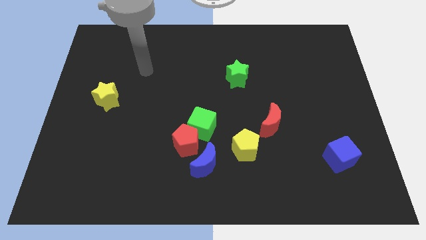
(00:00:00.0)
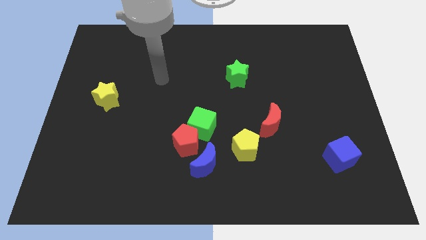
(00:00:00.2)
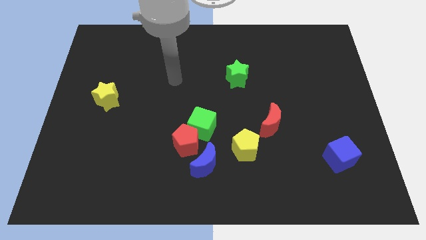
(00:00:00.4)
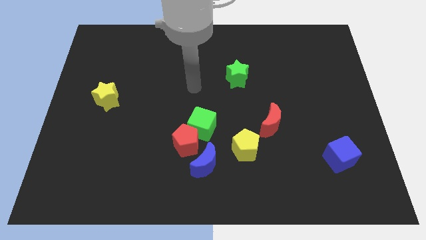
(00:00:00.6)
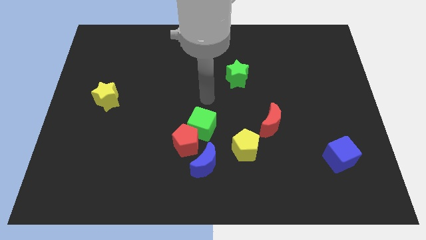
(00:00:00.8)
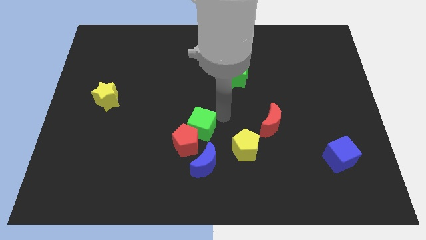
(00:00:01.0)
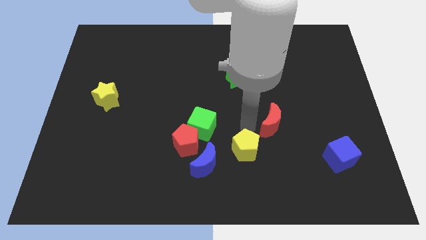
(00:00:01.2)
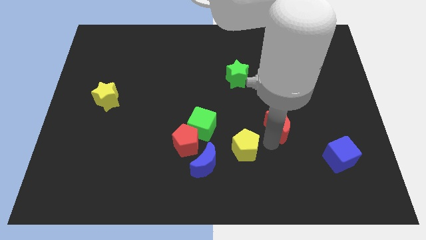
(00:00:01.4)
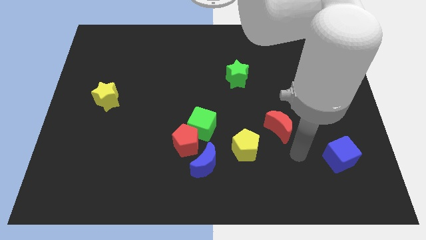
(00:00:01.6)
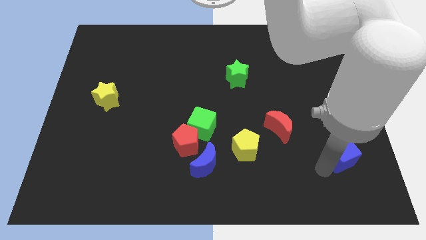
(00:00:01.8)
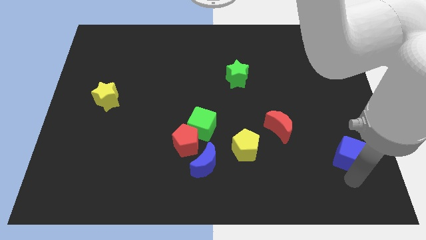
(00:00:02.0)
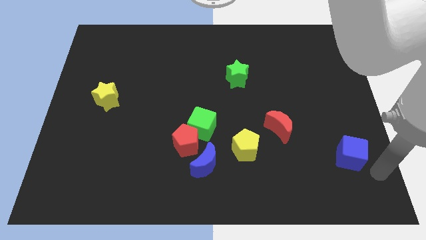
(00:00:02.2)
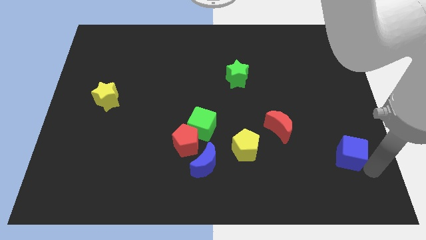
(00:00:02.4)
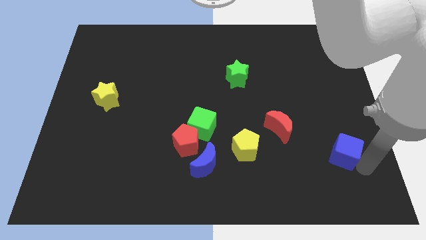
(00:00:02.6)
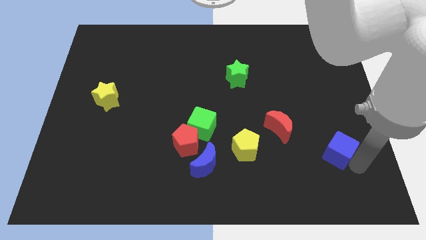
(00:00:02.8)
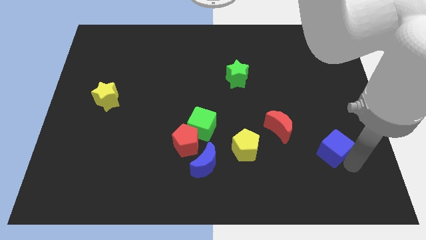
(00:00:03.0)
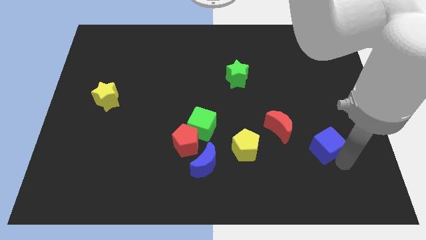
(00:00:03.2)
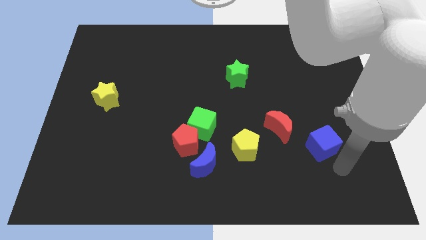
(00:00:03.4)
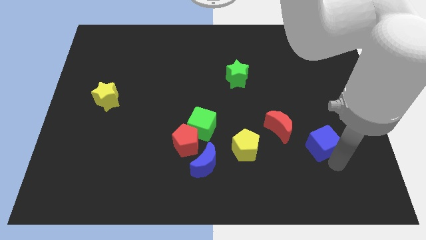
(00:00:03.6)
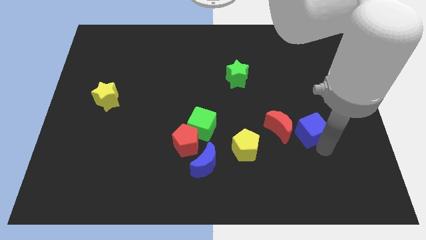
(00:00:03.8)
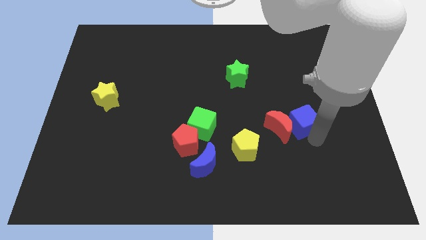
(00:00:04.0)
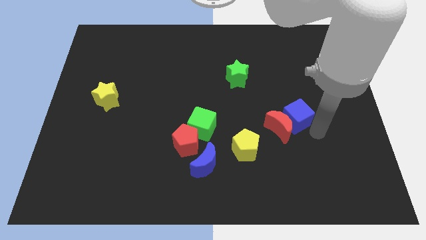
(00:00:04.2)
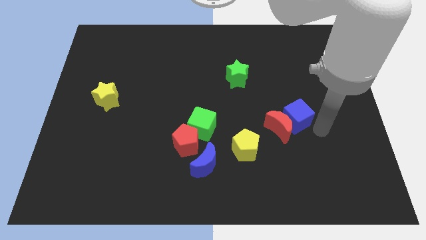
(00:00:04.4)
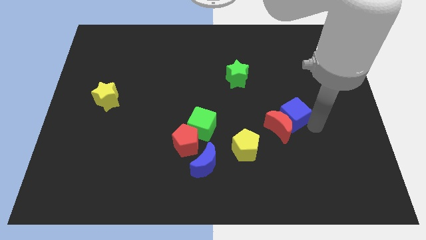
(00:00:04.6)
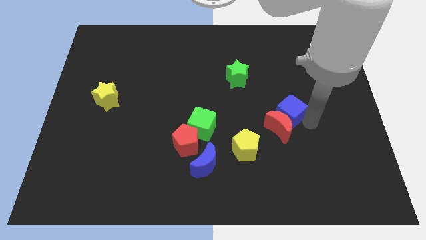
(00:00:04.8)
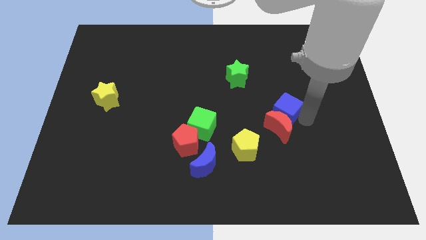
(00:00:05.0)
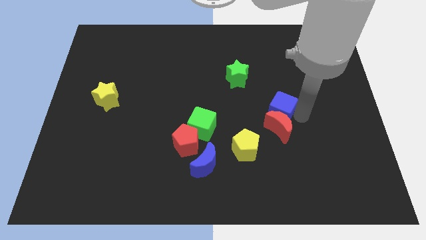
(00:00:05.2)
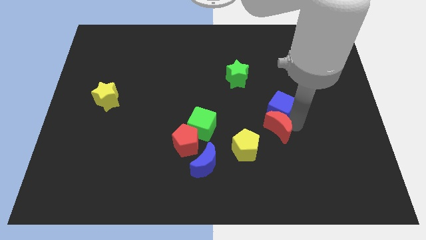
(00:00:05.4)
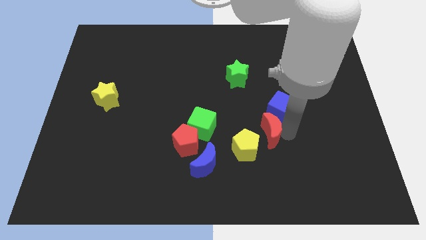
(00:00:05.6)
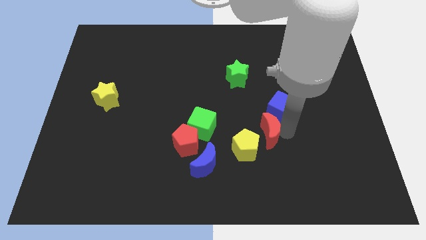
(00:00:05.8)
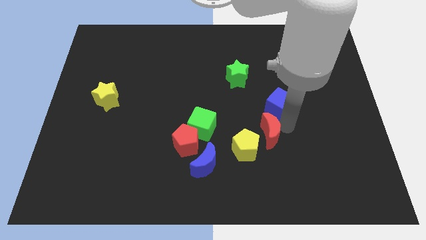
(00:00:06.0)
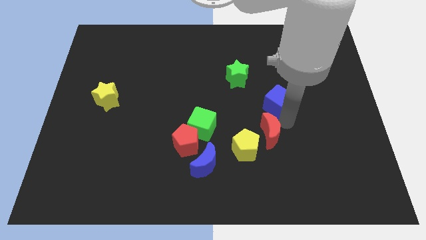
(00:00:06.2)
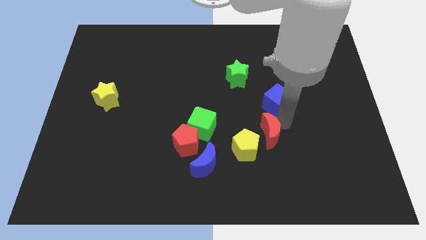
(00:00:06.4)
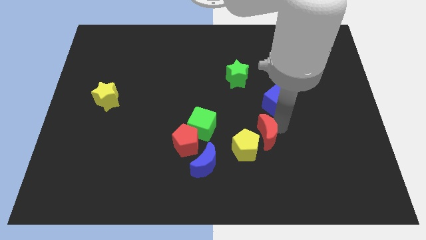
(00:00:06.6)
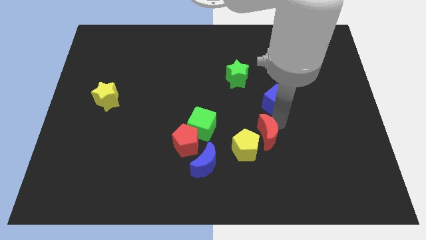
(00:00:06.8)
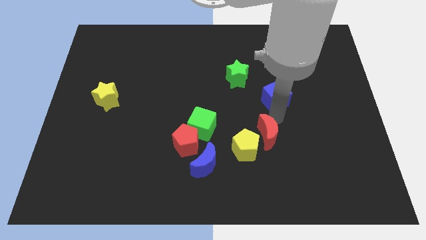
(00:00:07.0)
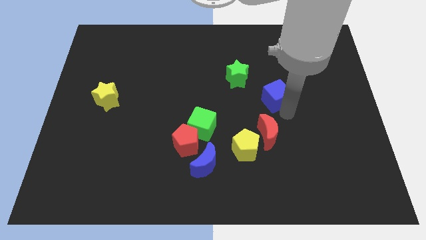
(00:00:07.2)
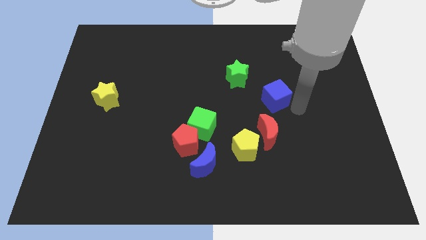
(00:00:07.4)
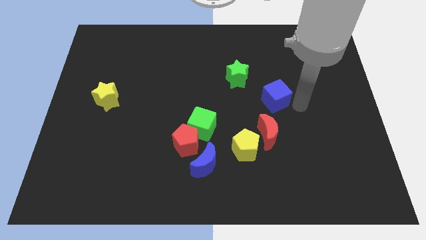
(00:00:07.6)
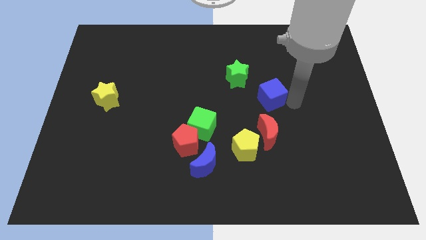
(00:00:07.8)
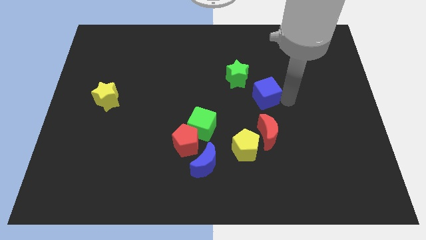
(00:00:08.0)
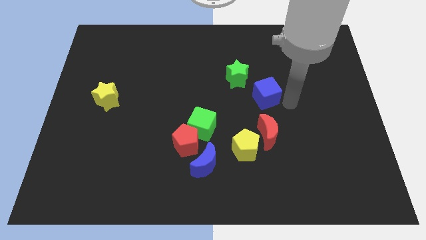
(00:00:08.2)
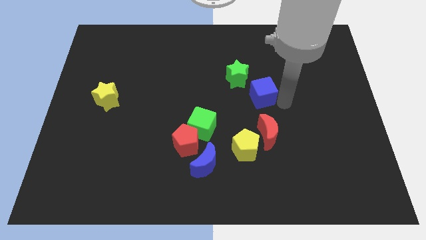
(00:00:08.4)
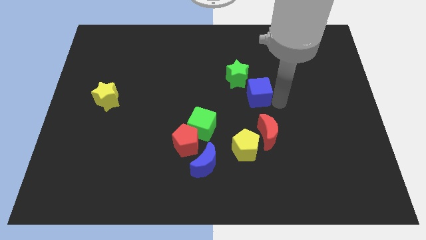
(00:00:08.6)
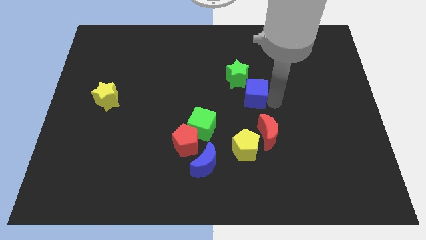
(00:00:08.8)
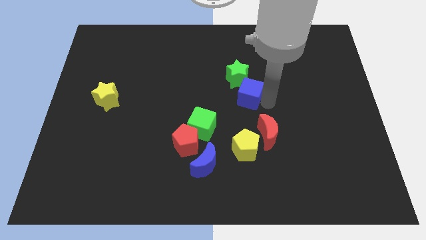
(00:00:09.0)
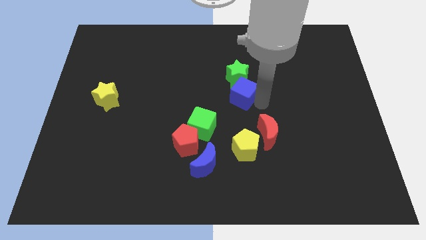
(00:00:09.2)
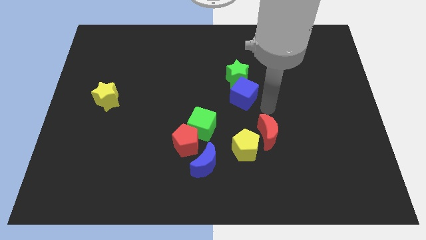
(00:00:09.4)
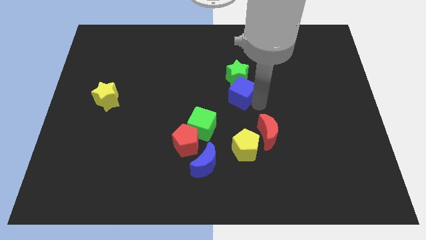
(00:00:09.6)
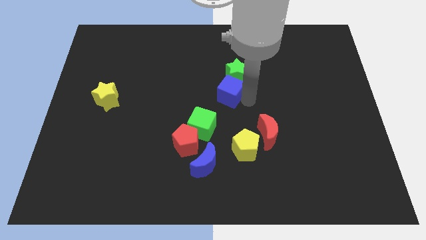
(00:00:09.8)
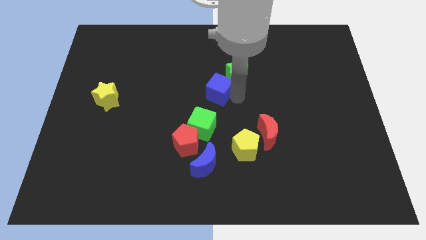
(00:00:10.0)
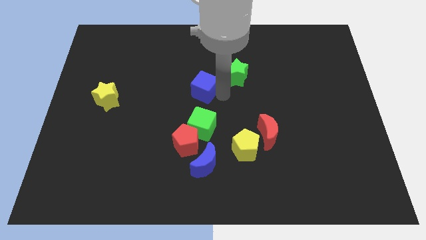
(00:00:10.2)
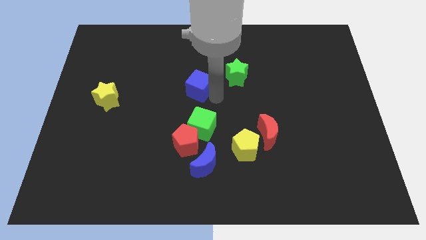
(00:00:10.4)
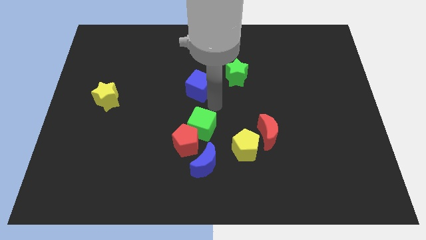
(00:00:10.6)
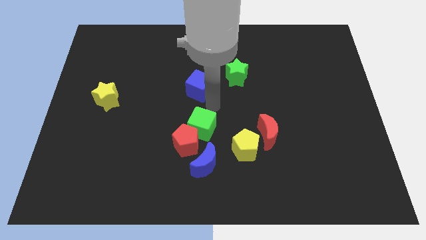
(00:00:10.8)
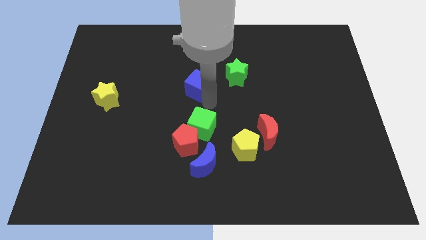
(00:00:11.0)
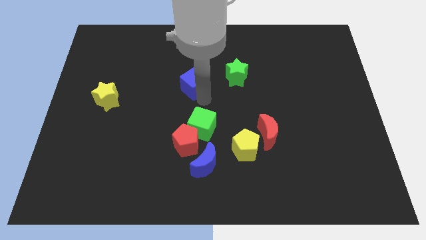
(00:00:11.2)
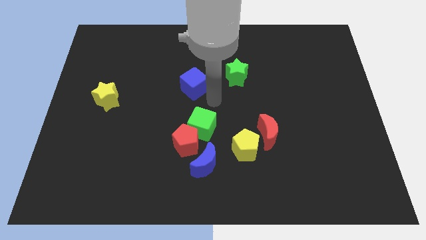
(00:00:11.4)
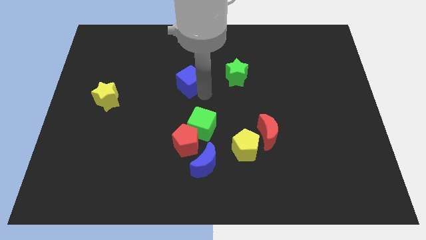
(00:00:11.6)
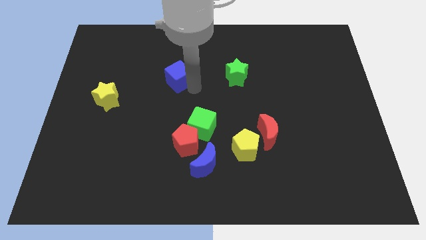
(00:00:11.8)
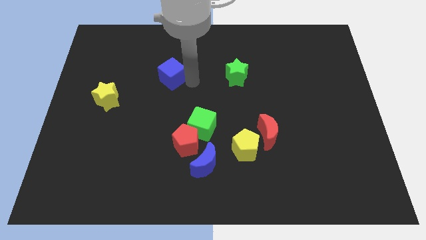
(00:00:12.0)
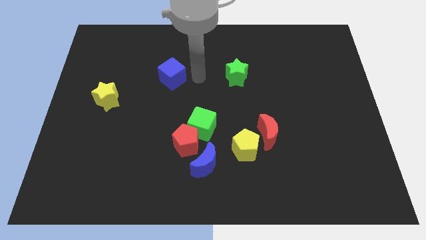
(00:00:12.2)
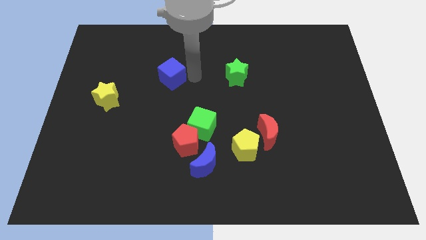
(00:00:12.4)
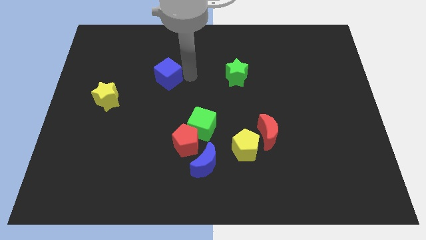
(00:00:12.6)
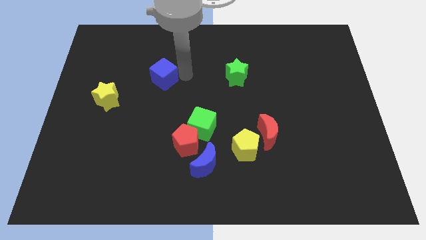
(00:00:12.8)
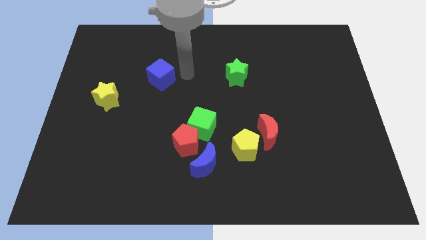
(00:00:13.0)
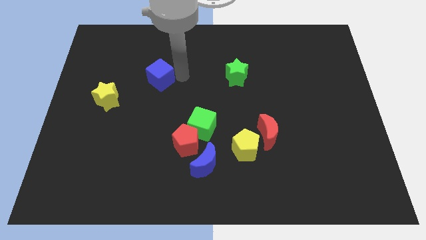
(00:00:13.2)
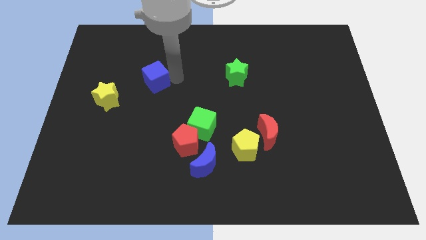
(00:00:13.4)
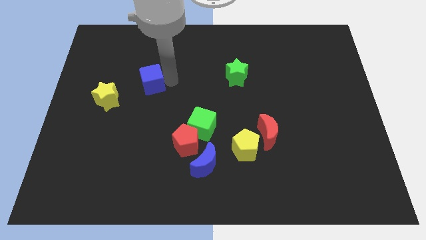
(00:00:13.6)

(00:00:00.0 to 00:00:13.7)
push the blue cube to the top right of the yellow star

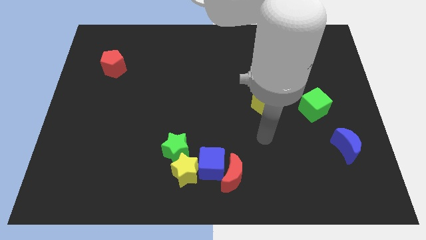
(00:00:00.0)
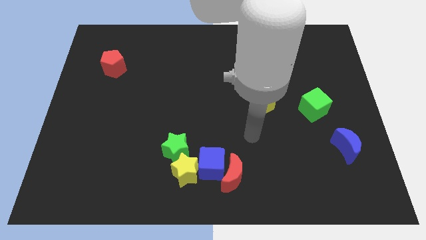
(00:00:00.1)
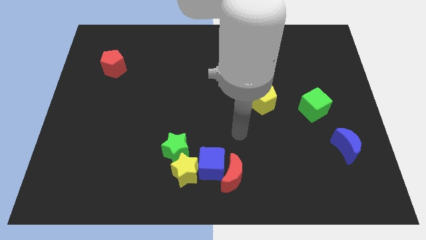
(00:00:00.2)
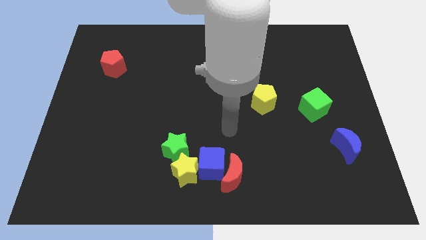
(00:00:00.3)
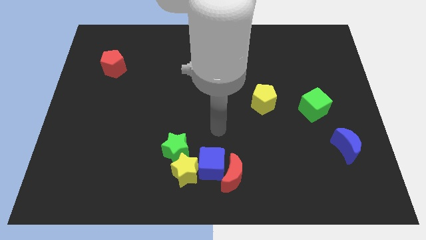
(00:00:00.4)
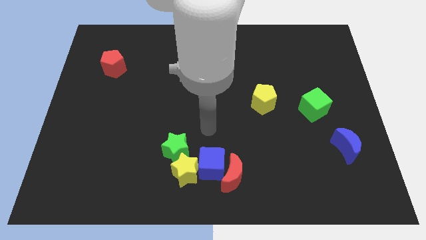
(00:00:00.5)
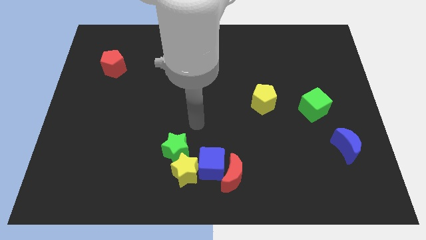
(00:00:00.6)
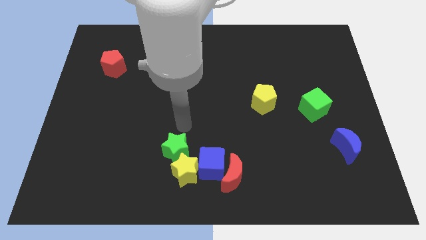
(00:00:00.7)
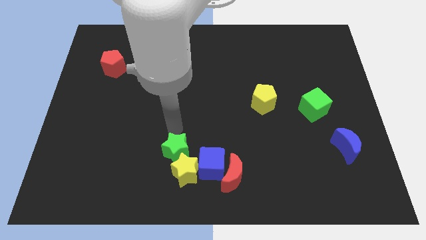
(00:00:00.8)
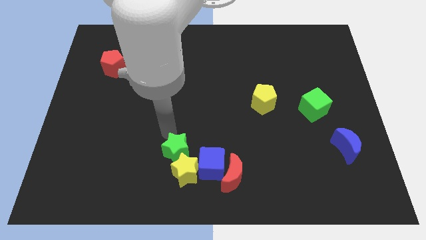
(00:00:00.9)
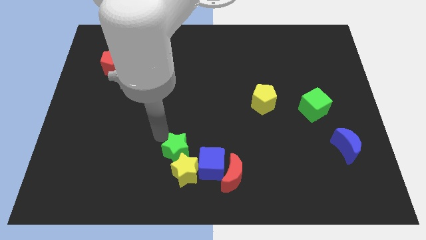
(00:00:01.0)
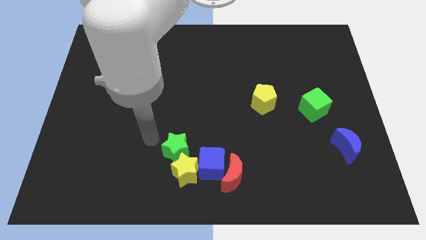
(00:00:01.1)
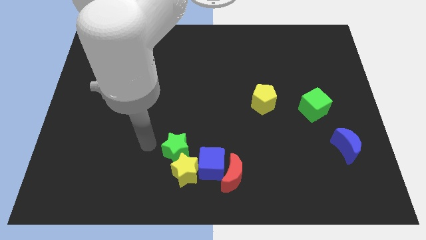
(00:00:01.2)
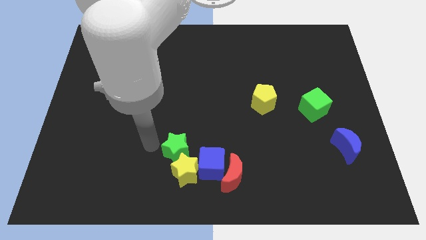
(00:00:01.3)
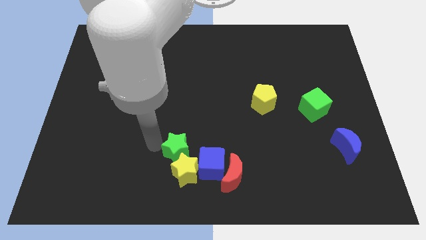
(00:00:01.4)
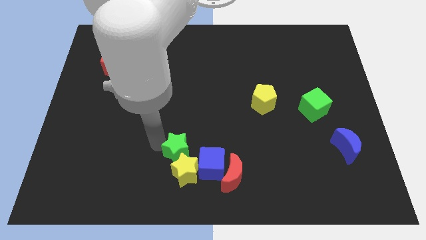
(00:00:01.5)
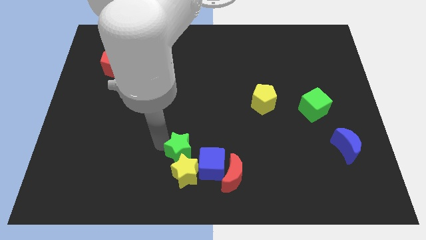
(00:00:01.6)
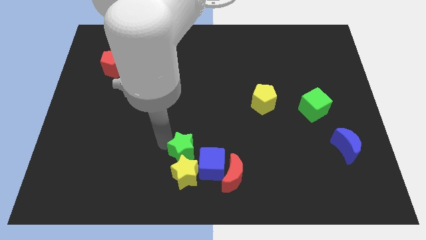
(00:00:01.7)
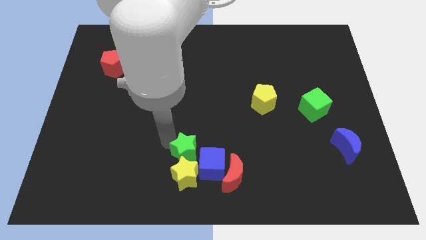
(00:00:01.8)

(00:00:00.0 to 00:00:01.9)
put the green star diagonally up and to the left of the red moon
